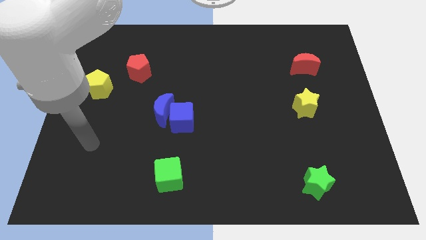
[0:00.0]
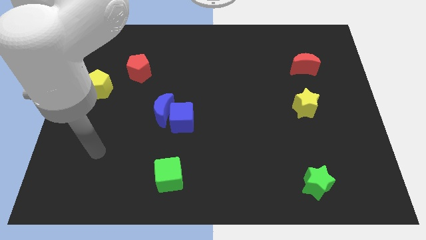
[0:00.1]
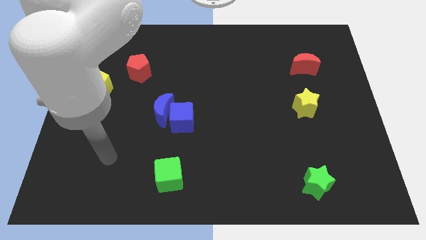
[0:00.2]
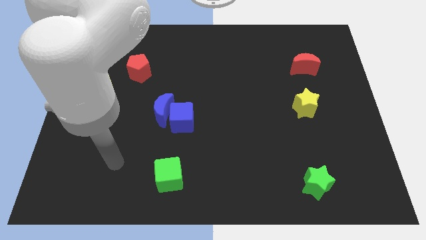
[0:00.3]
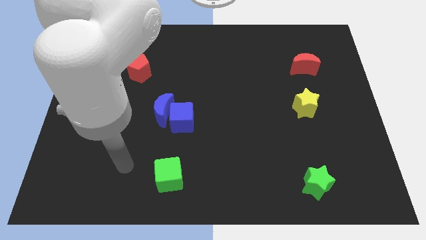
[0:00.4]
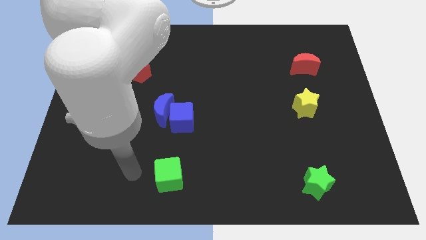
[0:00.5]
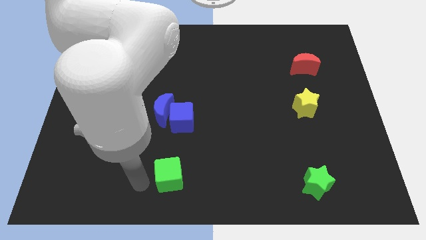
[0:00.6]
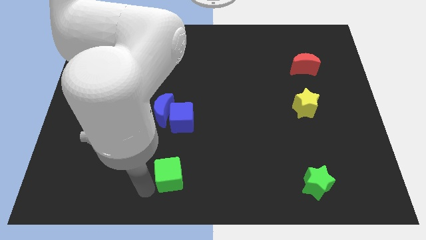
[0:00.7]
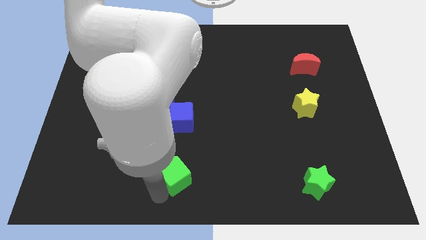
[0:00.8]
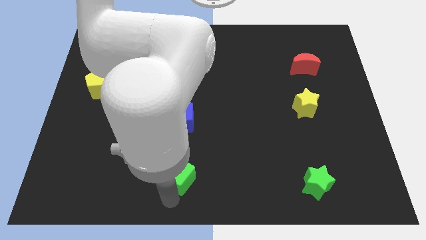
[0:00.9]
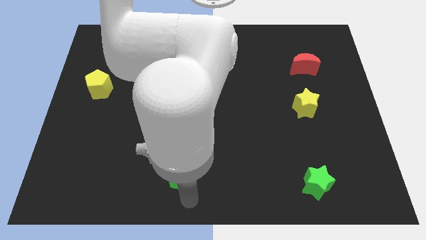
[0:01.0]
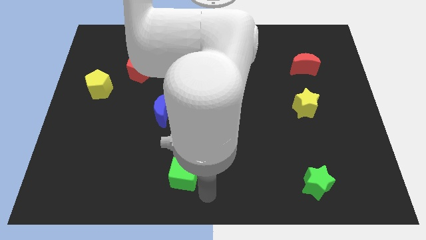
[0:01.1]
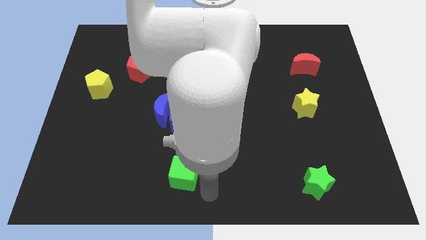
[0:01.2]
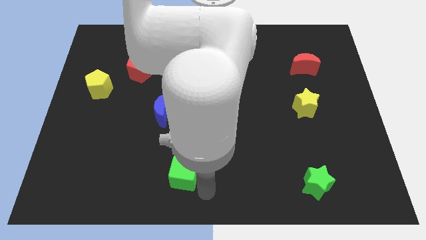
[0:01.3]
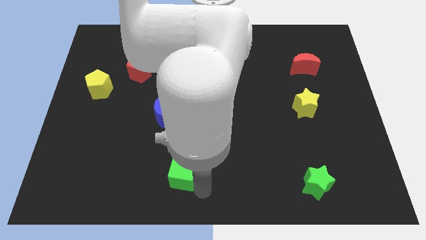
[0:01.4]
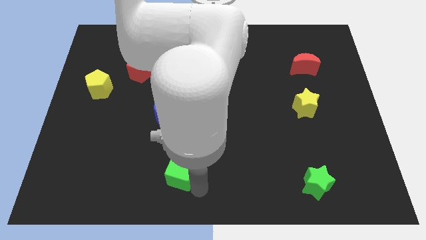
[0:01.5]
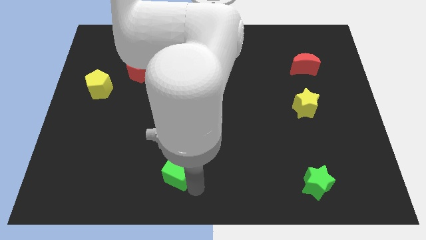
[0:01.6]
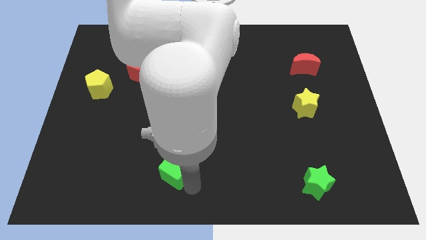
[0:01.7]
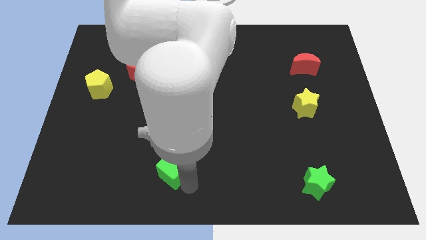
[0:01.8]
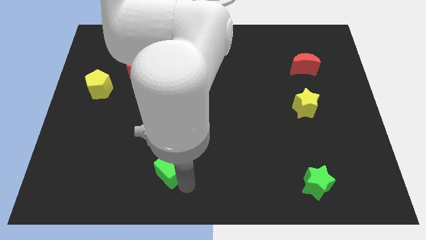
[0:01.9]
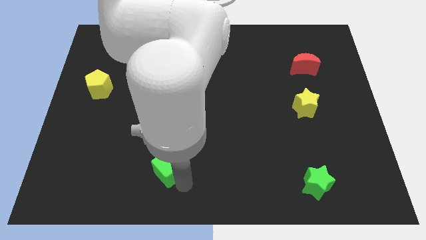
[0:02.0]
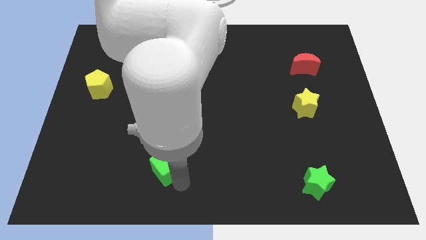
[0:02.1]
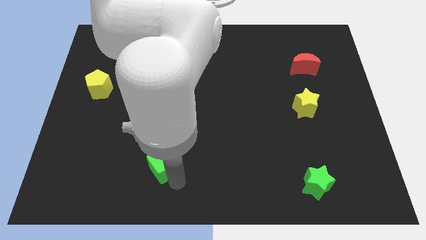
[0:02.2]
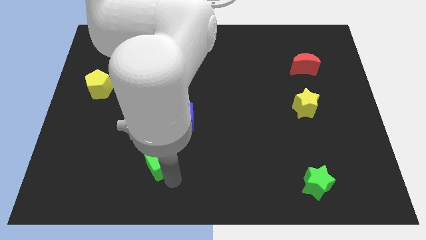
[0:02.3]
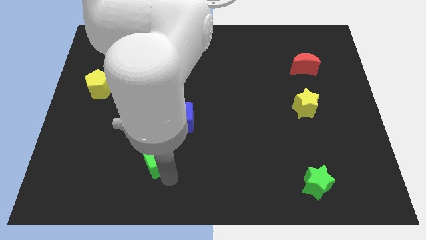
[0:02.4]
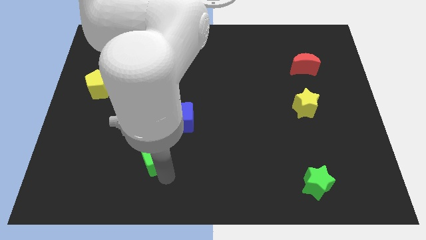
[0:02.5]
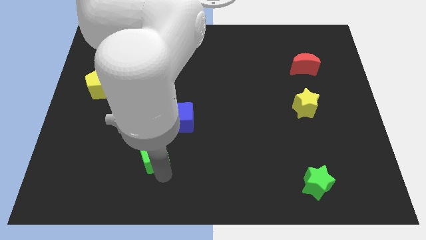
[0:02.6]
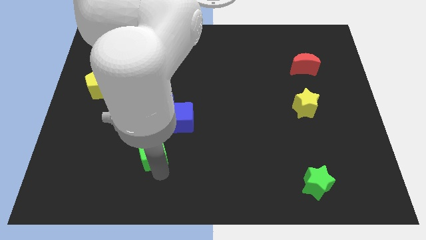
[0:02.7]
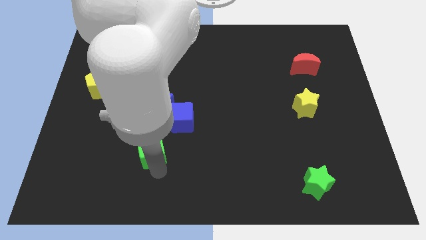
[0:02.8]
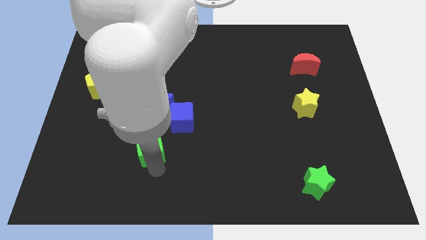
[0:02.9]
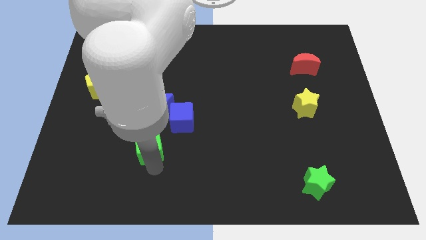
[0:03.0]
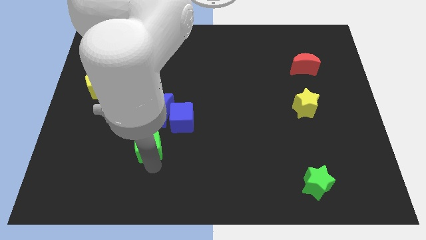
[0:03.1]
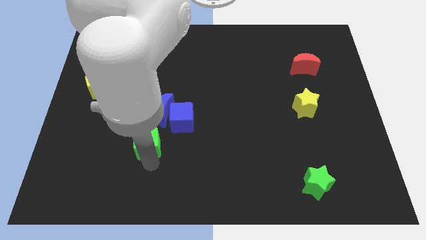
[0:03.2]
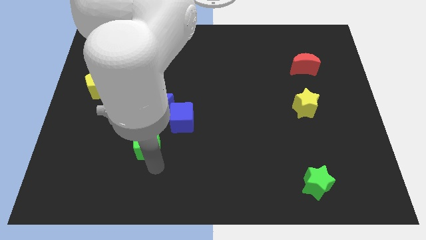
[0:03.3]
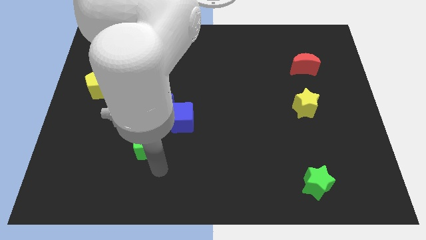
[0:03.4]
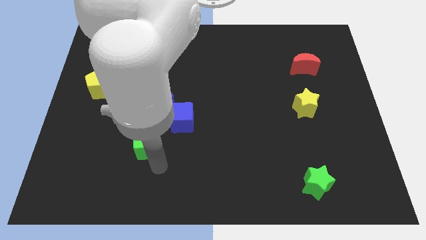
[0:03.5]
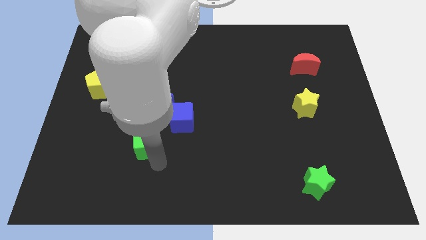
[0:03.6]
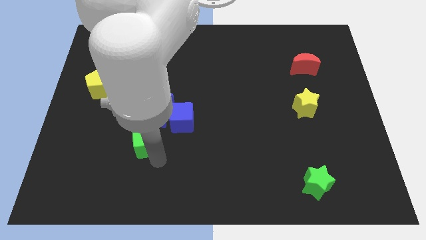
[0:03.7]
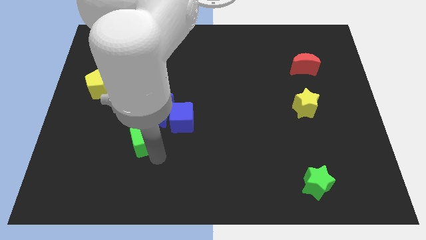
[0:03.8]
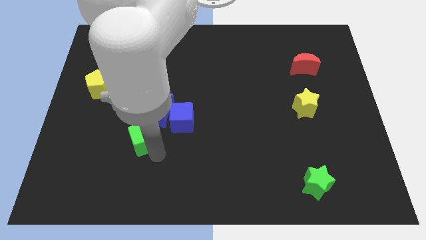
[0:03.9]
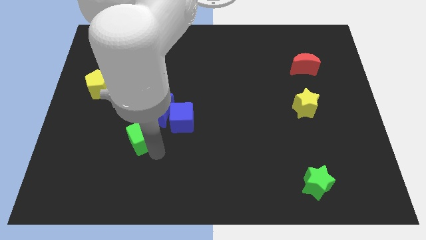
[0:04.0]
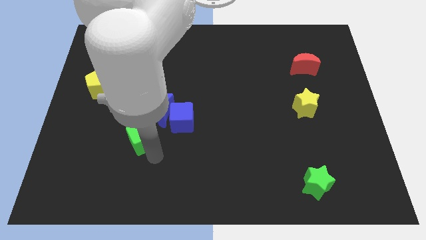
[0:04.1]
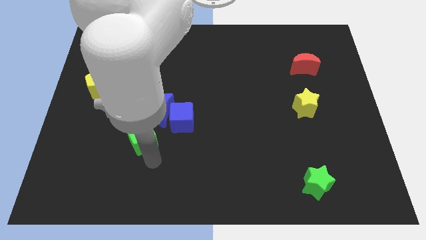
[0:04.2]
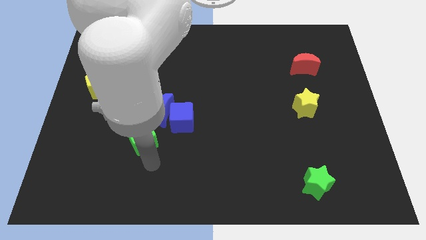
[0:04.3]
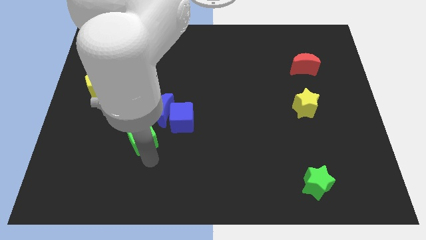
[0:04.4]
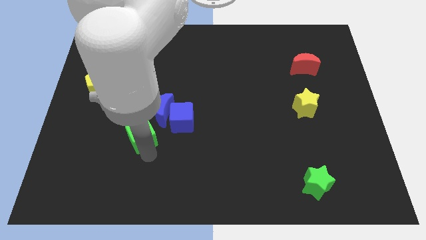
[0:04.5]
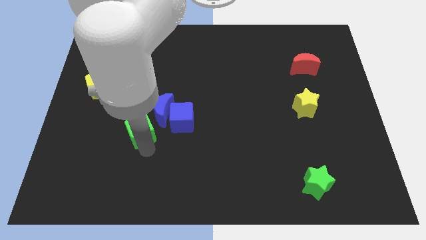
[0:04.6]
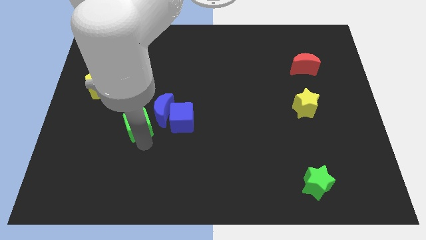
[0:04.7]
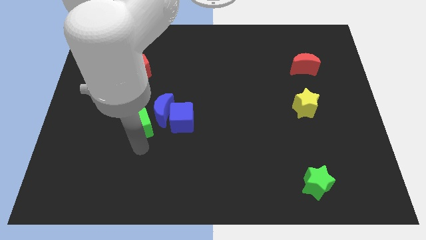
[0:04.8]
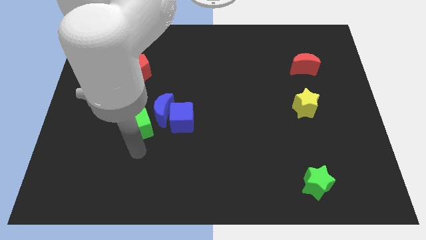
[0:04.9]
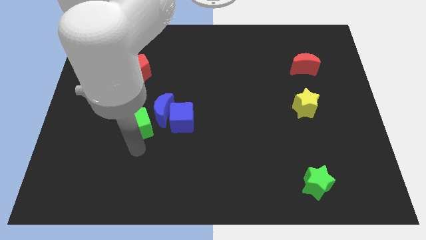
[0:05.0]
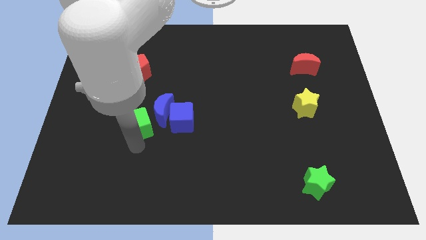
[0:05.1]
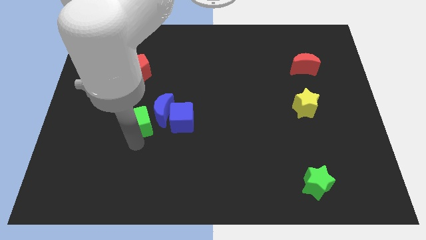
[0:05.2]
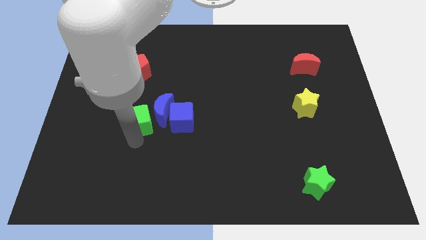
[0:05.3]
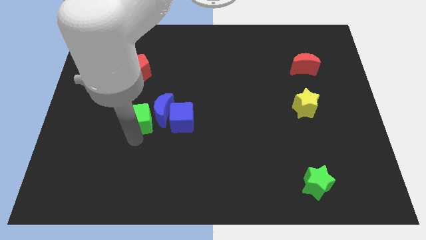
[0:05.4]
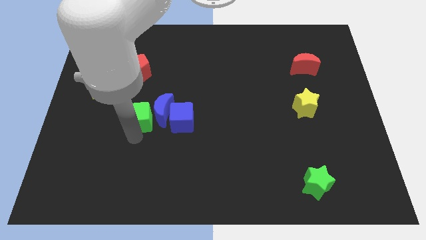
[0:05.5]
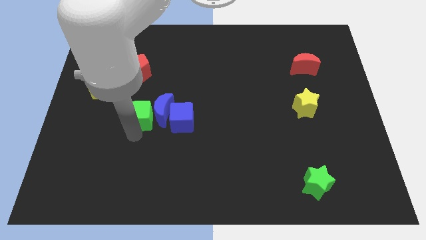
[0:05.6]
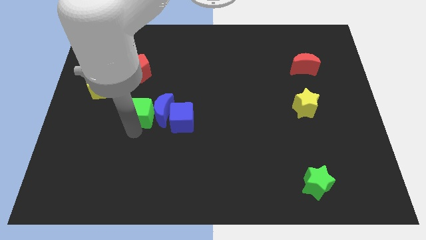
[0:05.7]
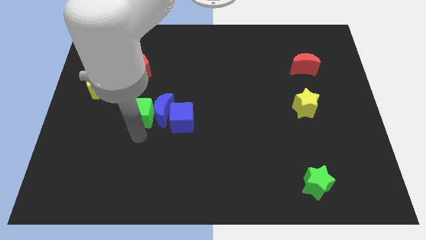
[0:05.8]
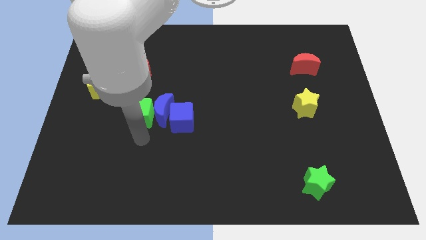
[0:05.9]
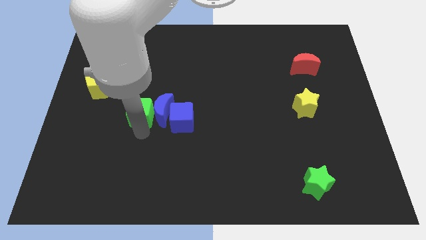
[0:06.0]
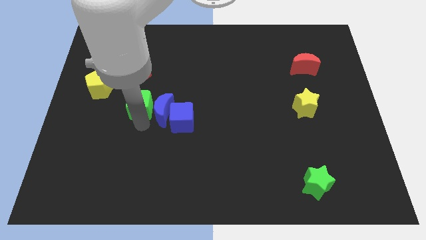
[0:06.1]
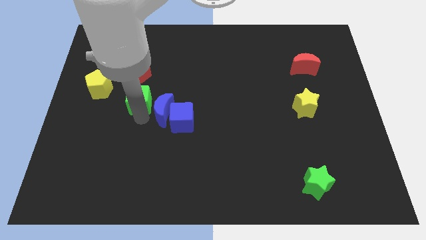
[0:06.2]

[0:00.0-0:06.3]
move the green cube to the right side of the yellow pentagon

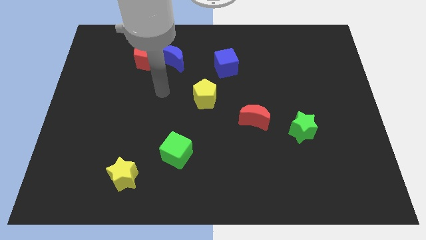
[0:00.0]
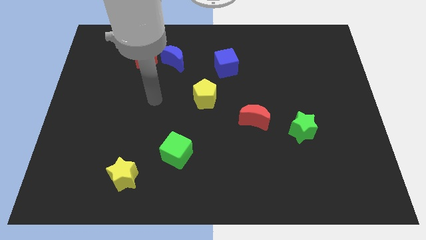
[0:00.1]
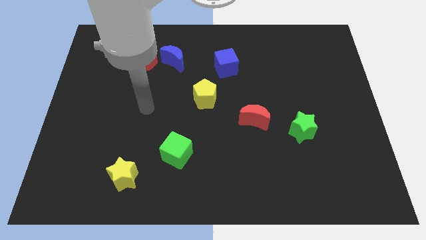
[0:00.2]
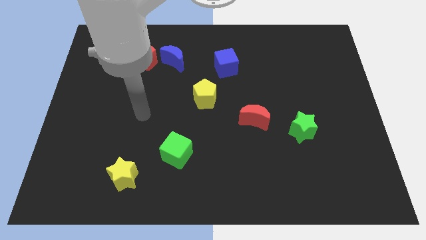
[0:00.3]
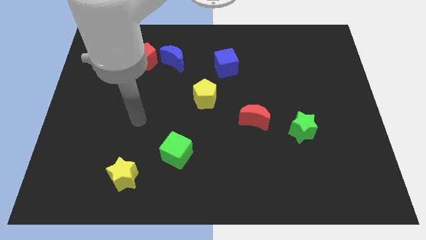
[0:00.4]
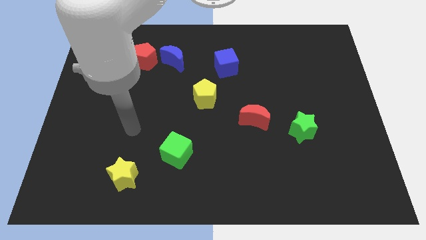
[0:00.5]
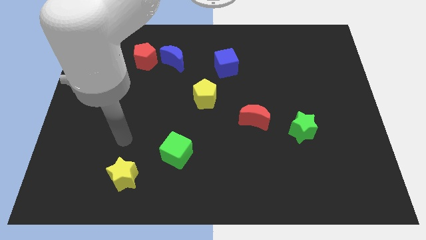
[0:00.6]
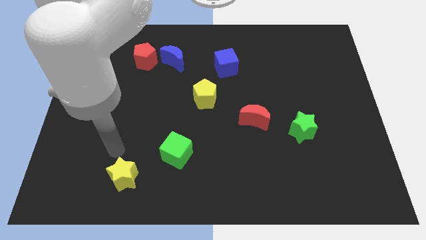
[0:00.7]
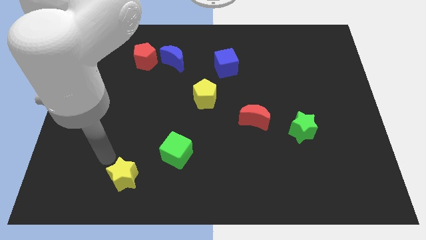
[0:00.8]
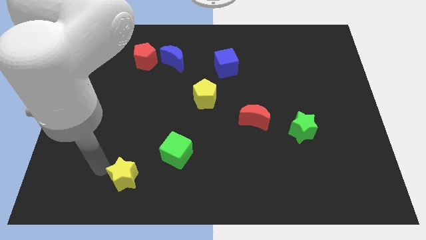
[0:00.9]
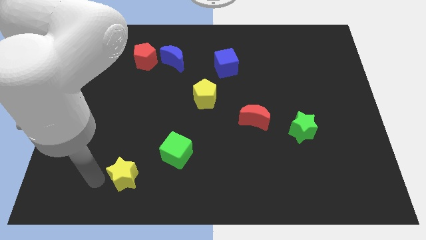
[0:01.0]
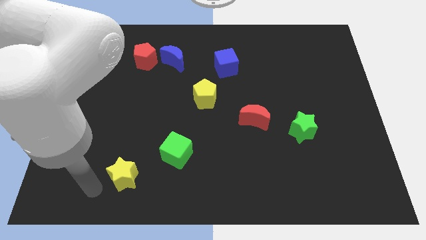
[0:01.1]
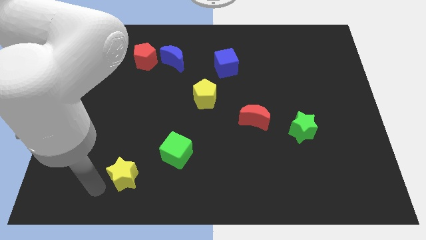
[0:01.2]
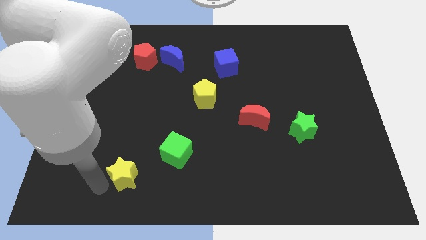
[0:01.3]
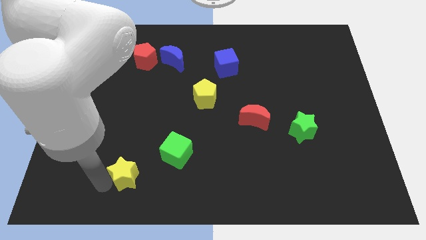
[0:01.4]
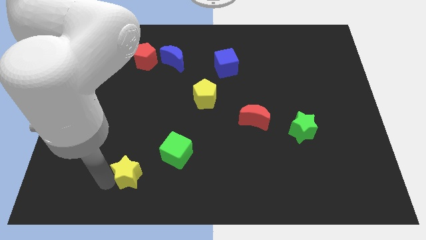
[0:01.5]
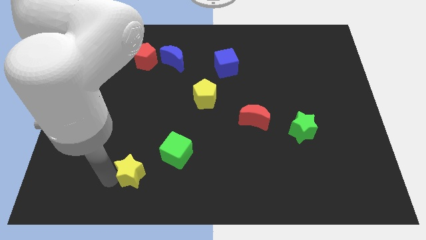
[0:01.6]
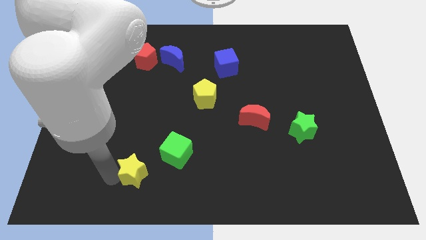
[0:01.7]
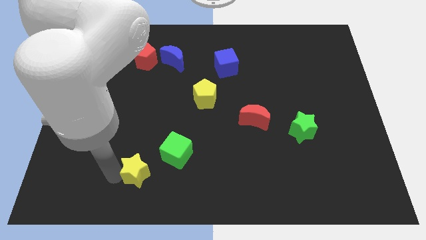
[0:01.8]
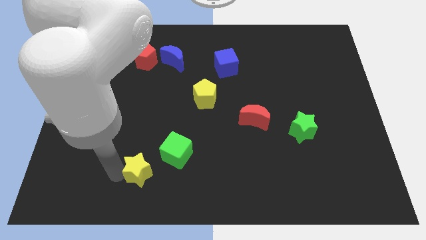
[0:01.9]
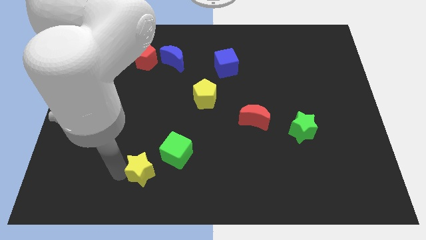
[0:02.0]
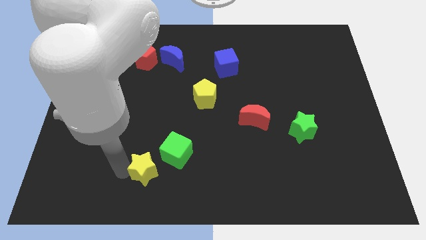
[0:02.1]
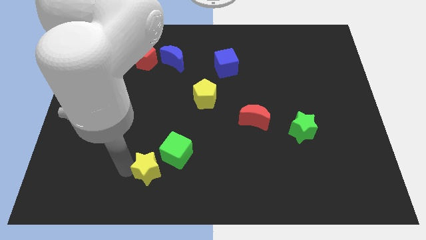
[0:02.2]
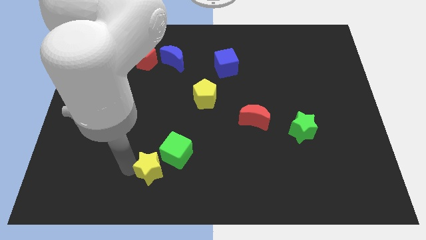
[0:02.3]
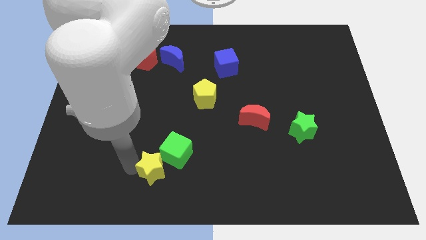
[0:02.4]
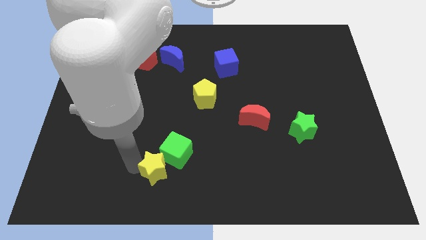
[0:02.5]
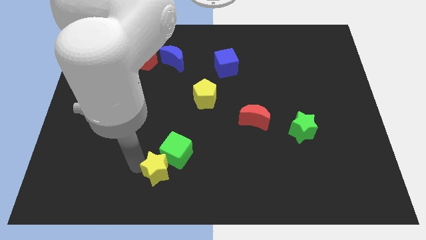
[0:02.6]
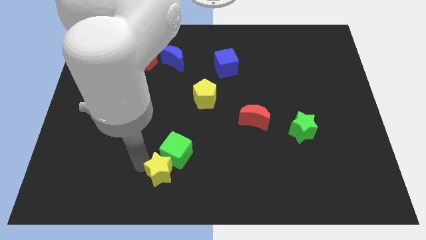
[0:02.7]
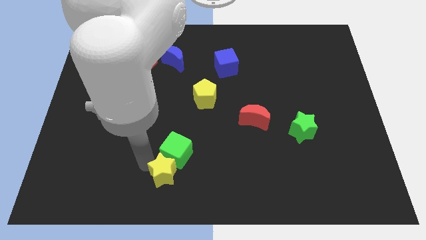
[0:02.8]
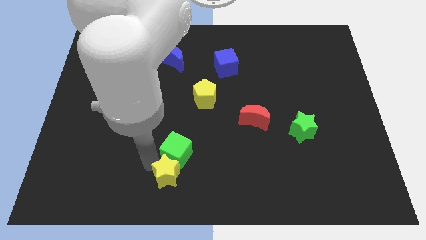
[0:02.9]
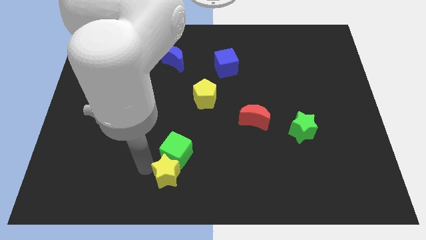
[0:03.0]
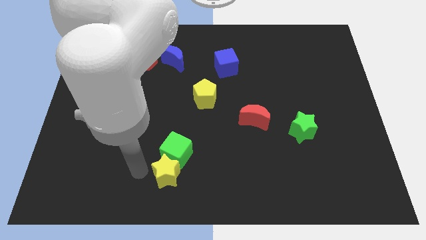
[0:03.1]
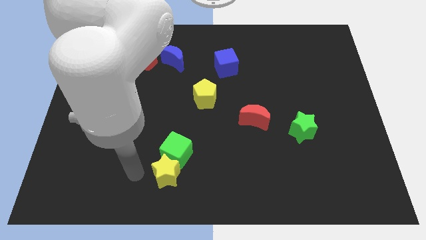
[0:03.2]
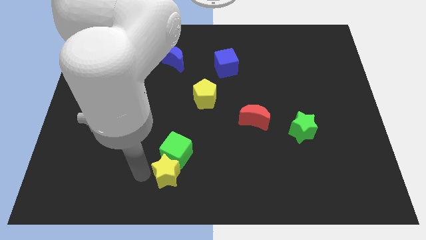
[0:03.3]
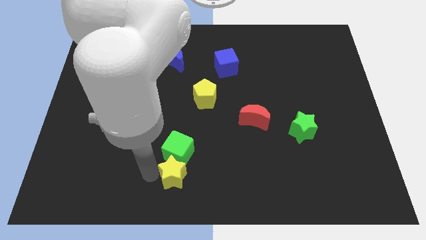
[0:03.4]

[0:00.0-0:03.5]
move the yellow star to the bottom right of the green cube
